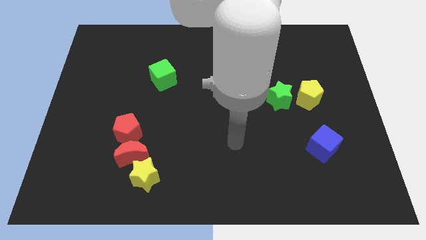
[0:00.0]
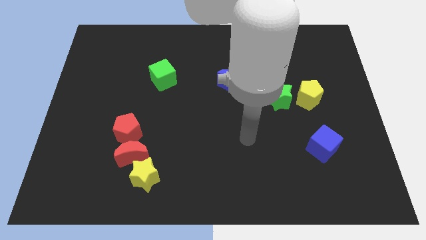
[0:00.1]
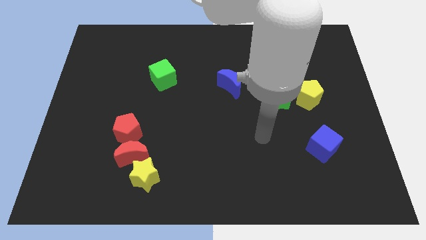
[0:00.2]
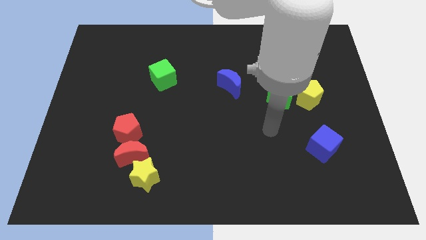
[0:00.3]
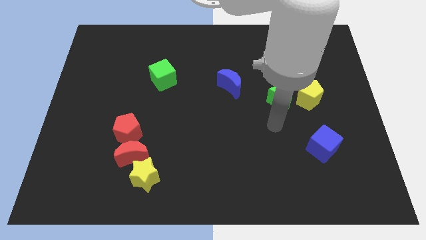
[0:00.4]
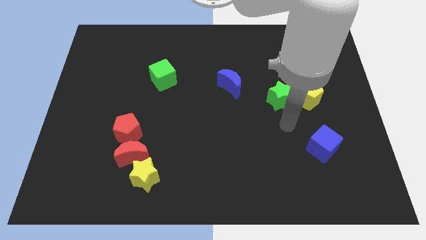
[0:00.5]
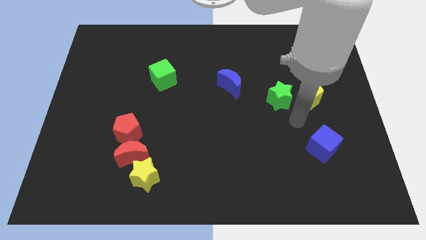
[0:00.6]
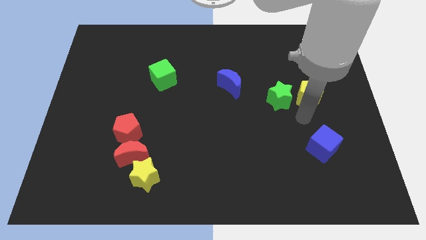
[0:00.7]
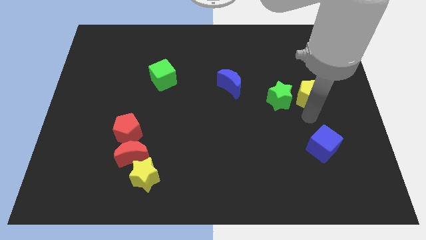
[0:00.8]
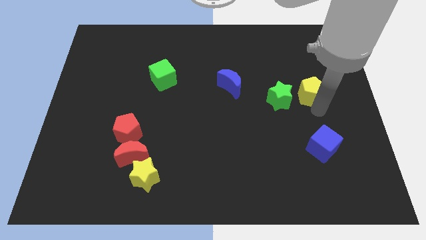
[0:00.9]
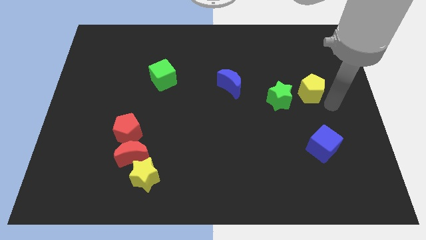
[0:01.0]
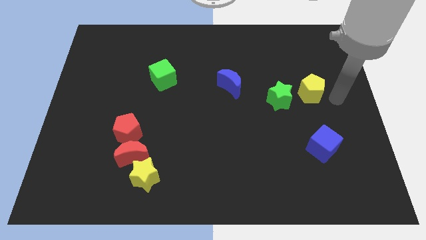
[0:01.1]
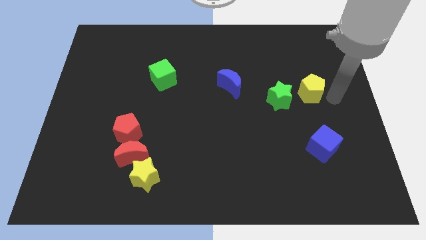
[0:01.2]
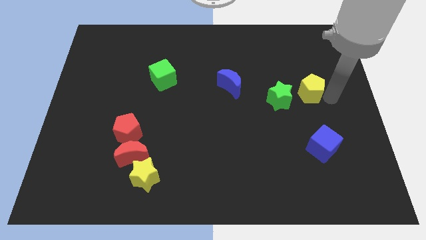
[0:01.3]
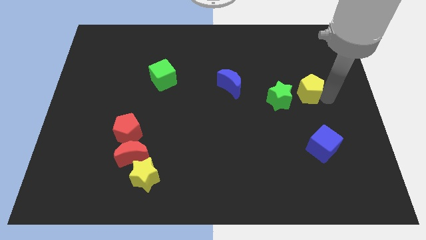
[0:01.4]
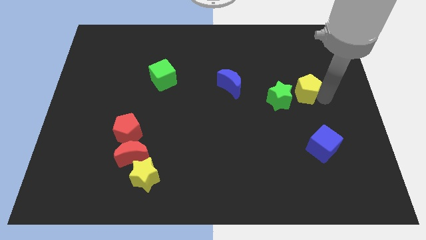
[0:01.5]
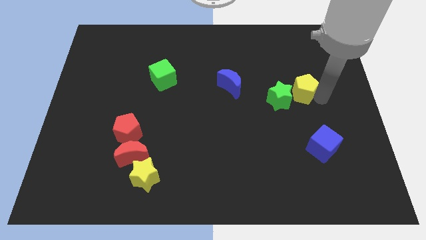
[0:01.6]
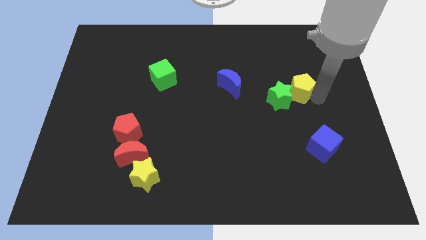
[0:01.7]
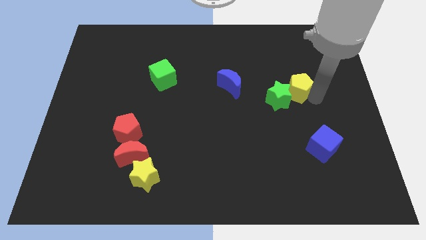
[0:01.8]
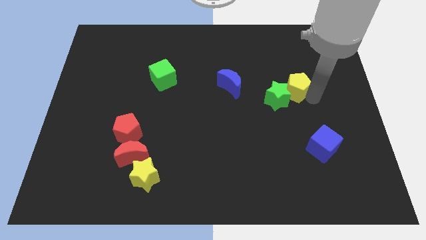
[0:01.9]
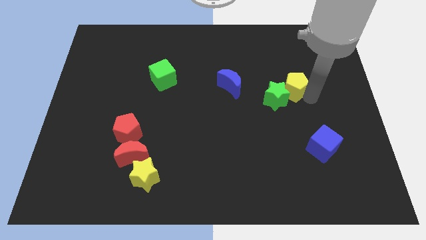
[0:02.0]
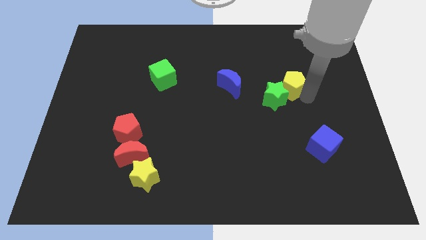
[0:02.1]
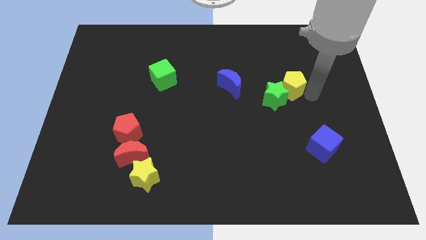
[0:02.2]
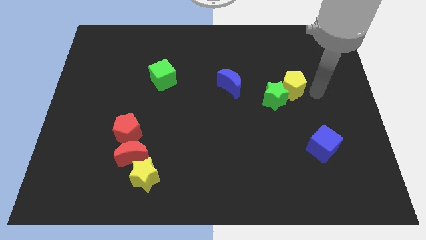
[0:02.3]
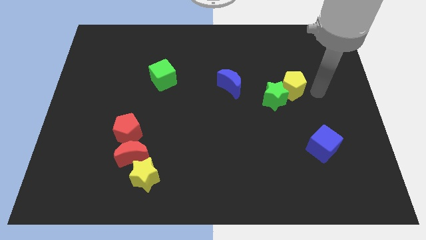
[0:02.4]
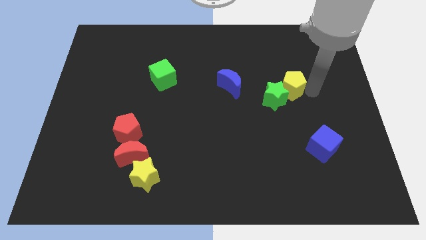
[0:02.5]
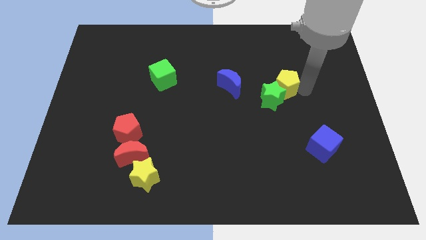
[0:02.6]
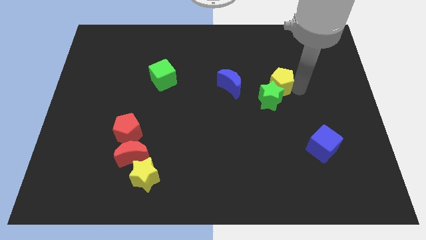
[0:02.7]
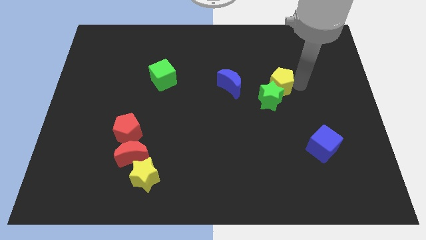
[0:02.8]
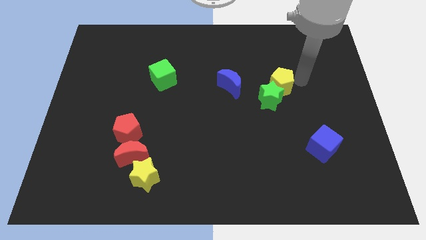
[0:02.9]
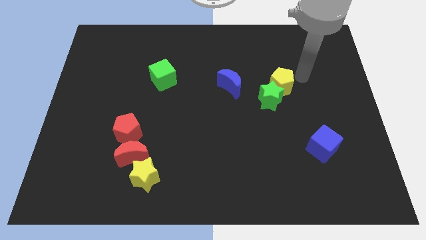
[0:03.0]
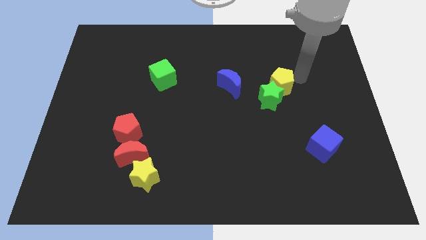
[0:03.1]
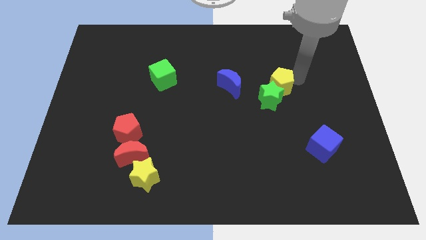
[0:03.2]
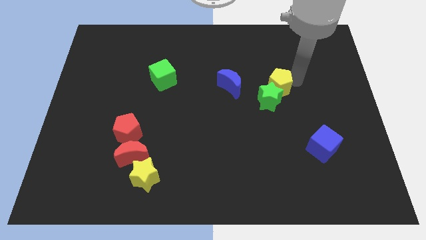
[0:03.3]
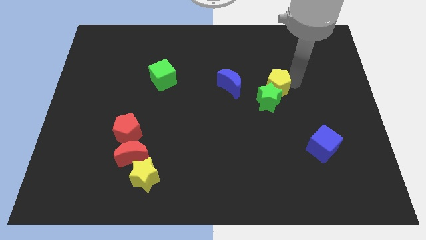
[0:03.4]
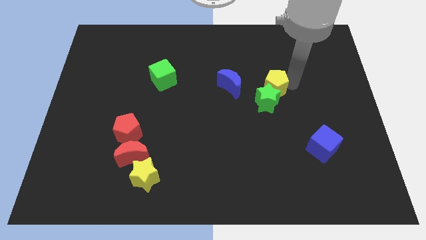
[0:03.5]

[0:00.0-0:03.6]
push the yellow pentagon somewhat left

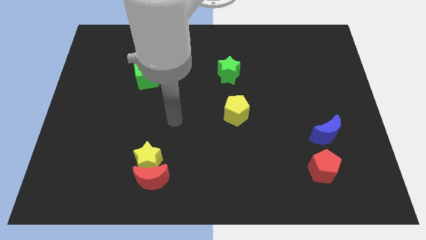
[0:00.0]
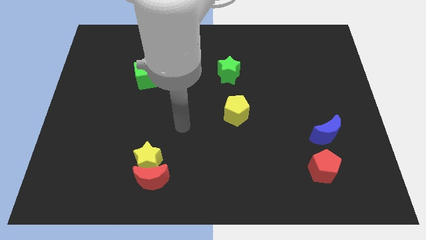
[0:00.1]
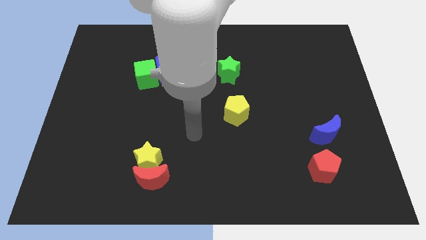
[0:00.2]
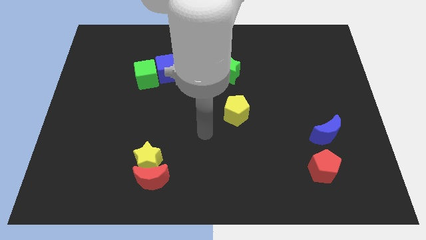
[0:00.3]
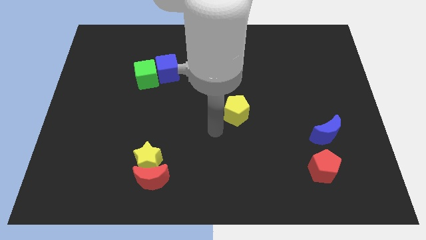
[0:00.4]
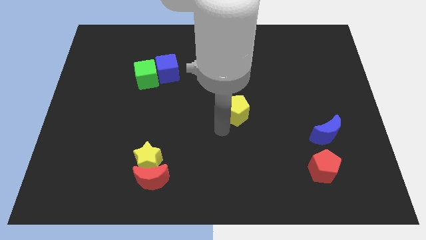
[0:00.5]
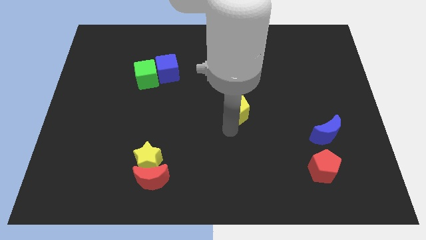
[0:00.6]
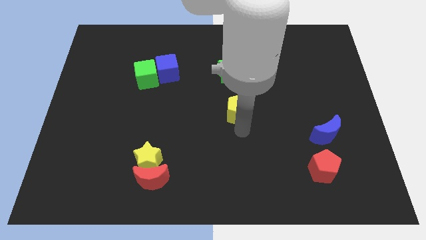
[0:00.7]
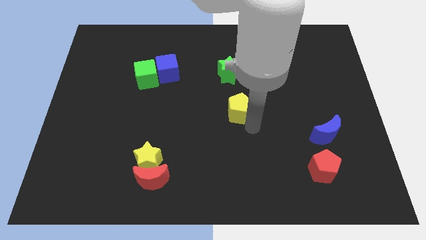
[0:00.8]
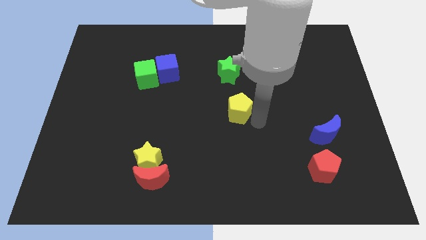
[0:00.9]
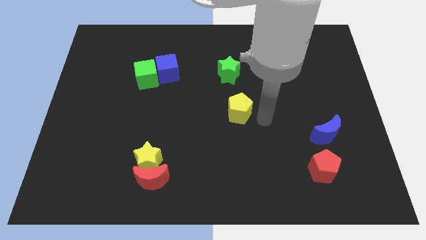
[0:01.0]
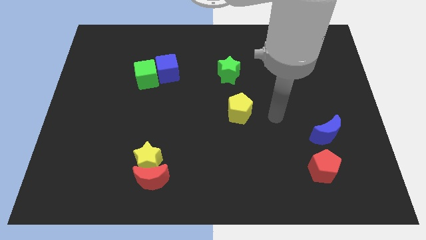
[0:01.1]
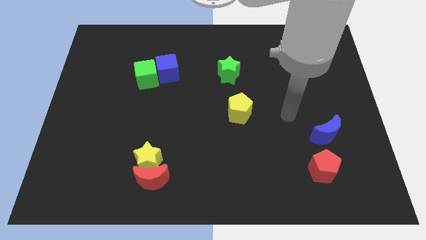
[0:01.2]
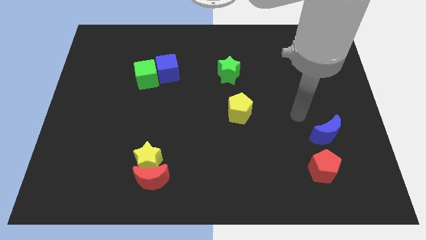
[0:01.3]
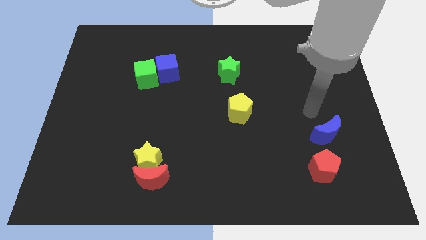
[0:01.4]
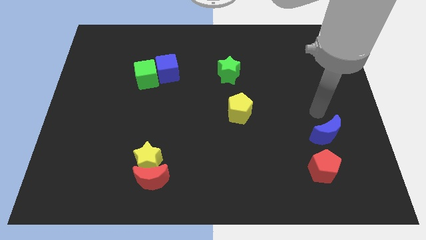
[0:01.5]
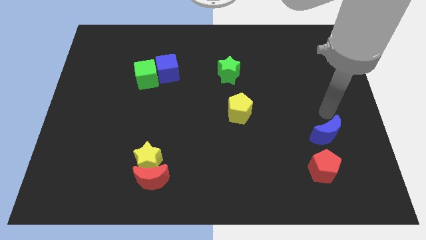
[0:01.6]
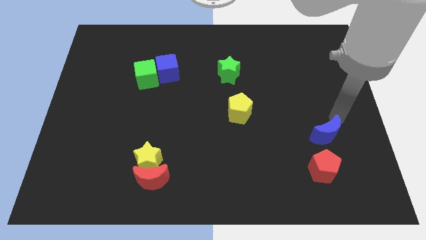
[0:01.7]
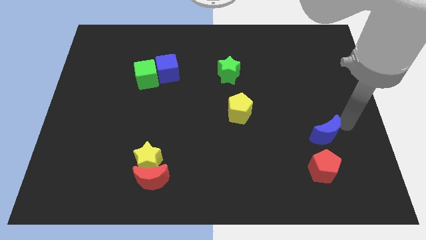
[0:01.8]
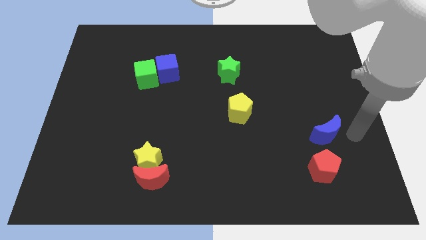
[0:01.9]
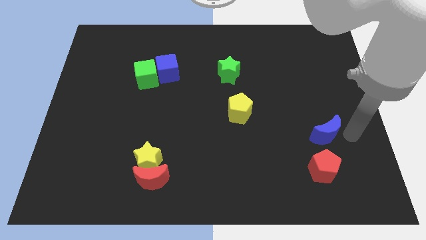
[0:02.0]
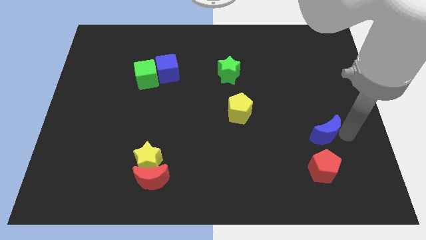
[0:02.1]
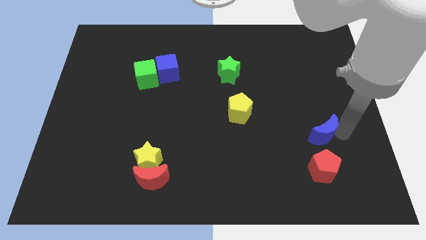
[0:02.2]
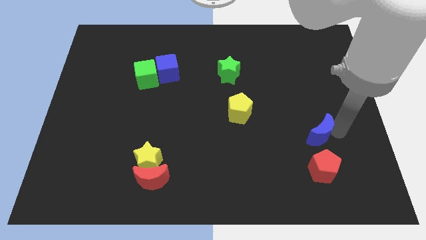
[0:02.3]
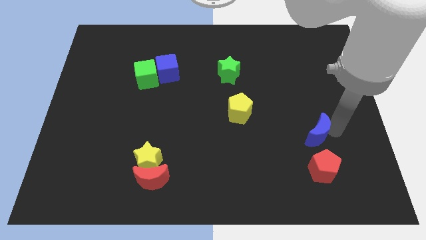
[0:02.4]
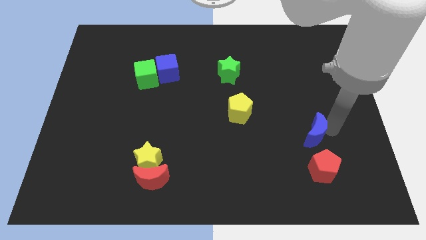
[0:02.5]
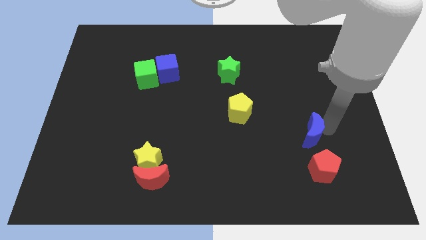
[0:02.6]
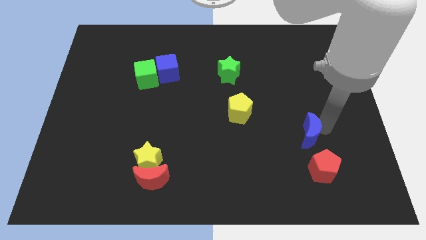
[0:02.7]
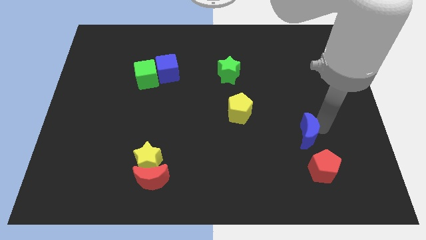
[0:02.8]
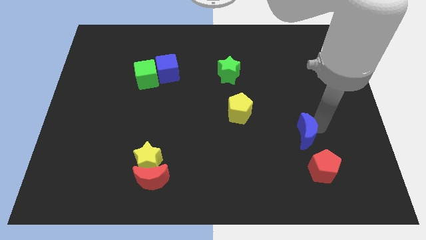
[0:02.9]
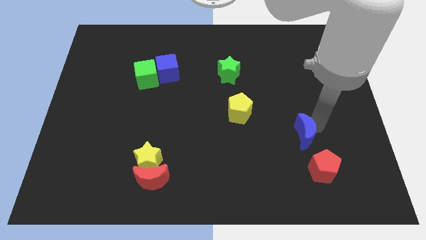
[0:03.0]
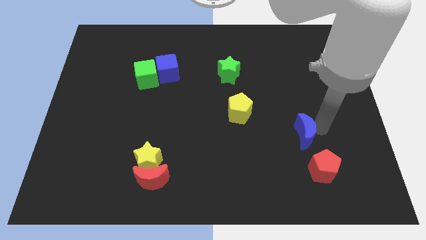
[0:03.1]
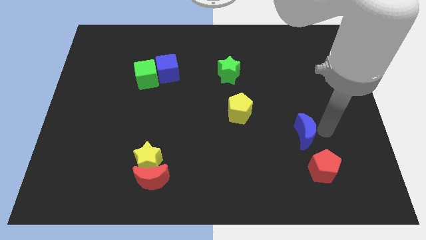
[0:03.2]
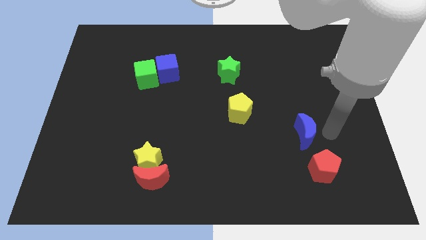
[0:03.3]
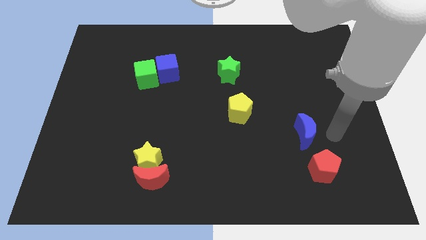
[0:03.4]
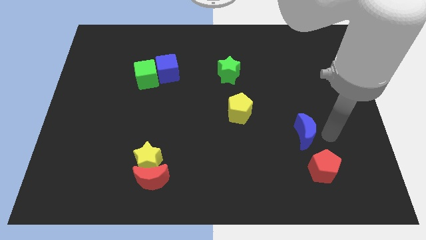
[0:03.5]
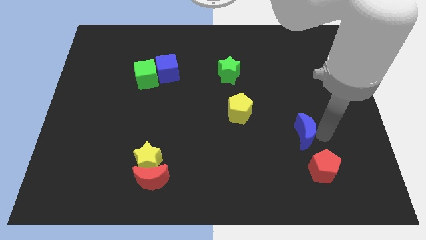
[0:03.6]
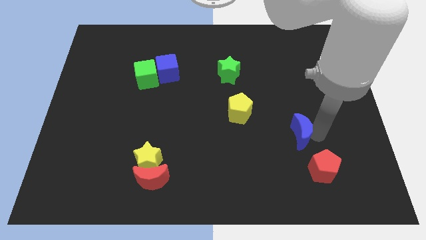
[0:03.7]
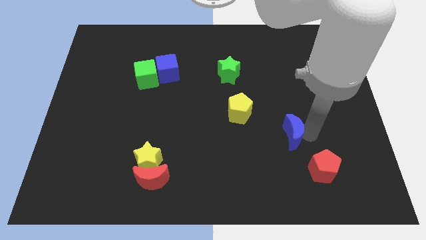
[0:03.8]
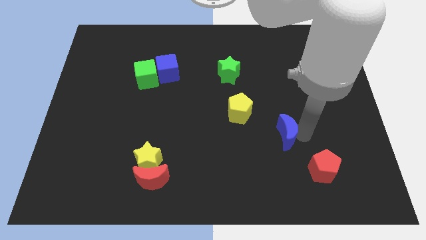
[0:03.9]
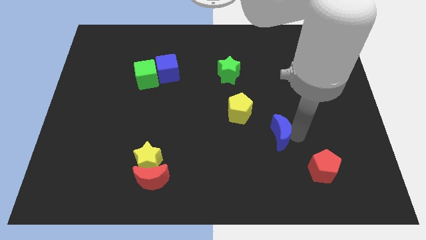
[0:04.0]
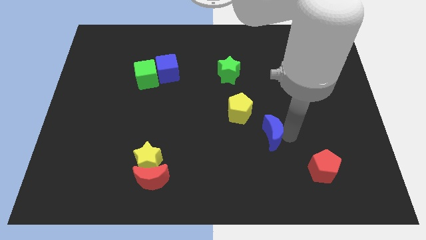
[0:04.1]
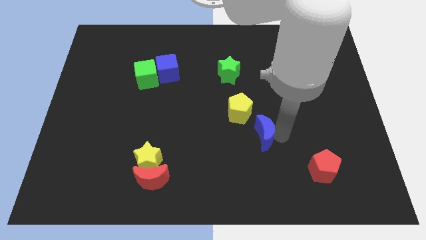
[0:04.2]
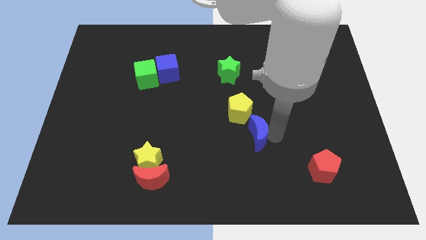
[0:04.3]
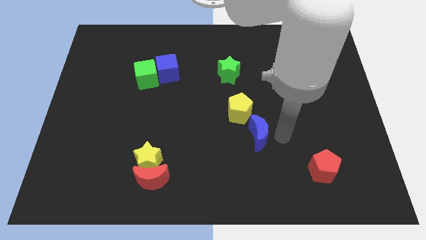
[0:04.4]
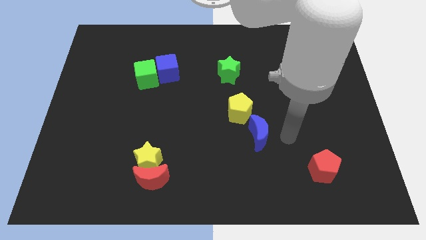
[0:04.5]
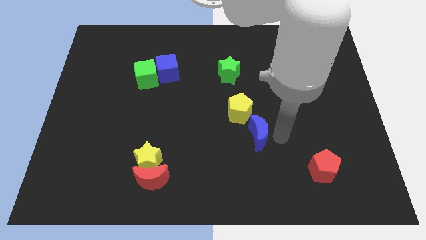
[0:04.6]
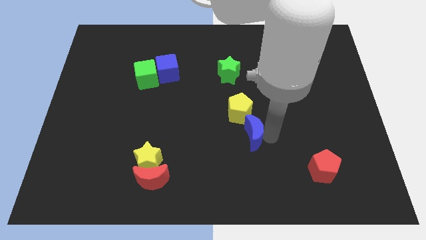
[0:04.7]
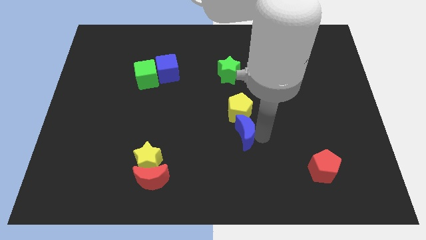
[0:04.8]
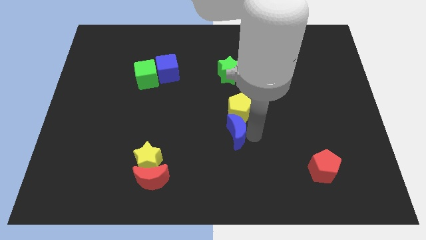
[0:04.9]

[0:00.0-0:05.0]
slide the blue moon left
